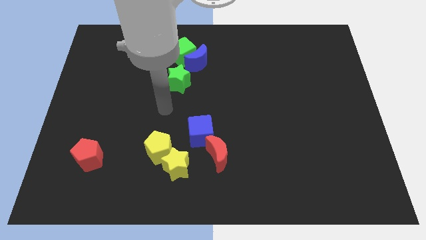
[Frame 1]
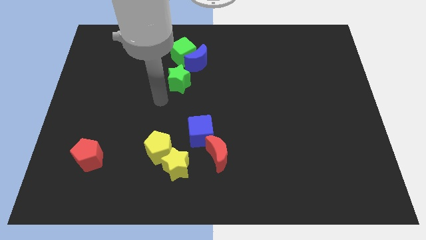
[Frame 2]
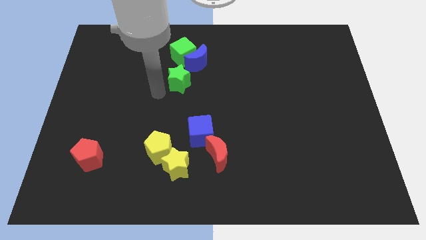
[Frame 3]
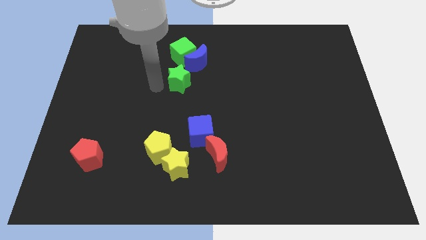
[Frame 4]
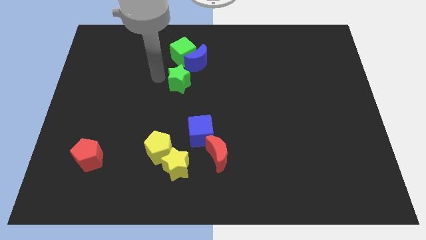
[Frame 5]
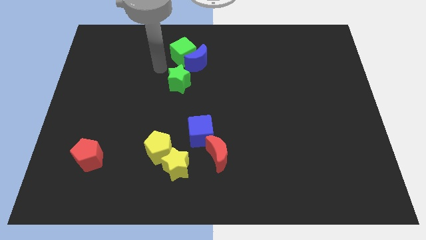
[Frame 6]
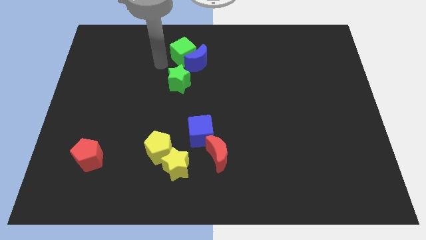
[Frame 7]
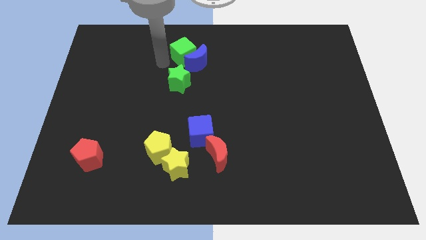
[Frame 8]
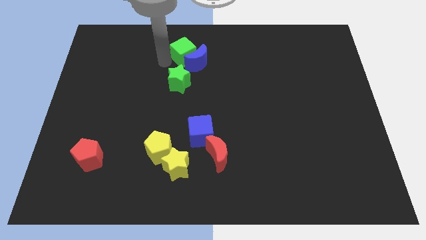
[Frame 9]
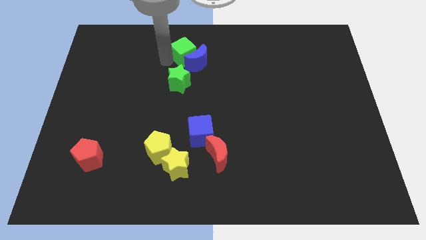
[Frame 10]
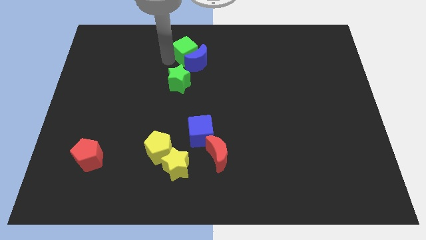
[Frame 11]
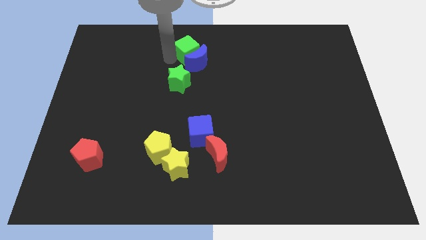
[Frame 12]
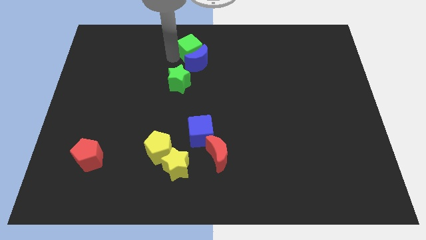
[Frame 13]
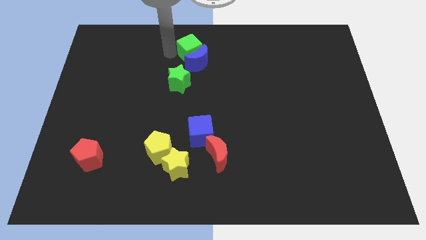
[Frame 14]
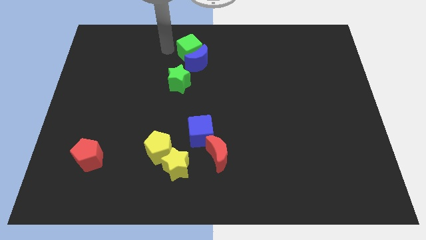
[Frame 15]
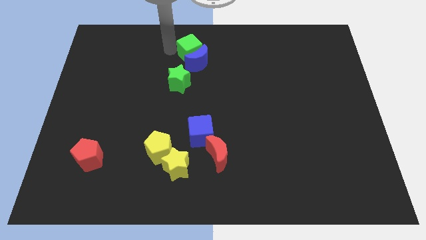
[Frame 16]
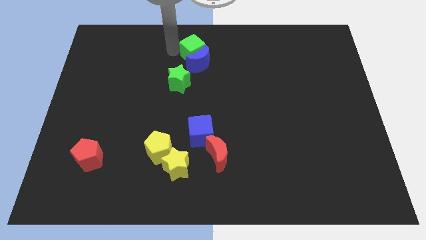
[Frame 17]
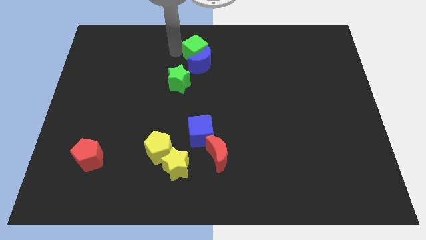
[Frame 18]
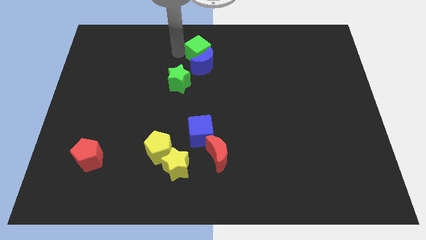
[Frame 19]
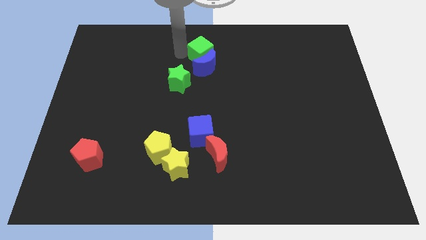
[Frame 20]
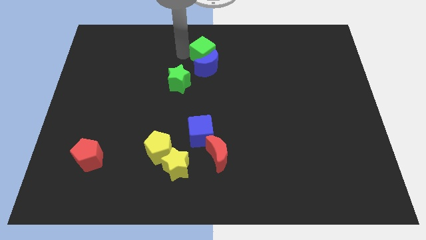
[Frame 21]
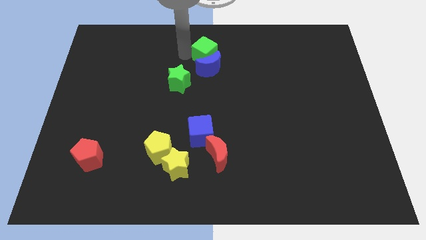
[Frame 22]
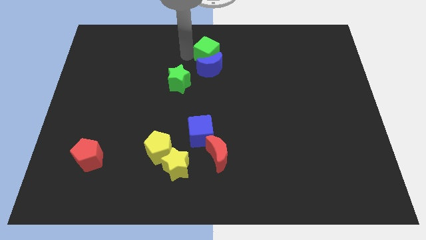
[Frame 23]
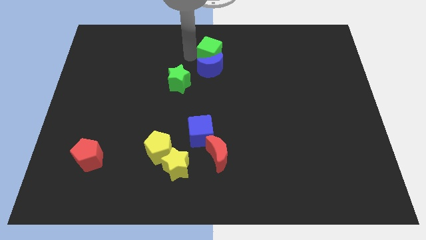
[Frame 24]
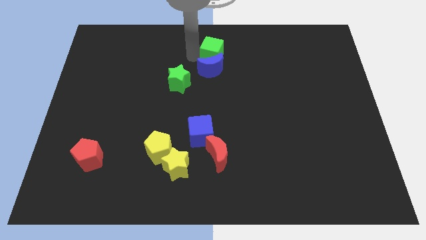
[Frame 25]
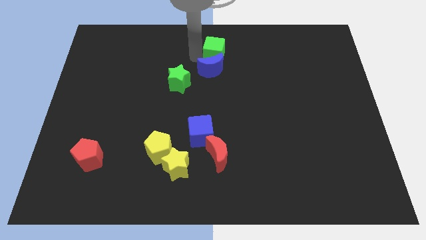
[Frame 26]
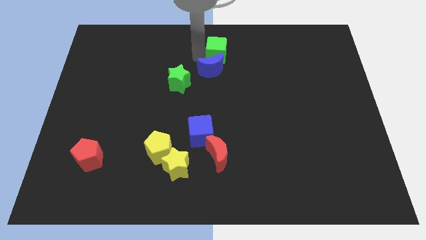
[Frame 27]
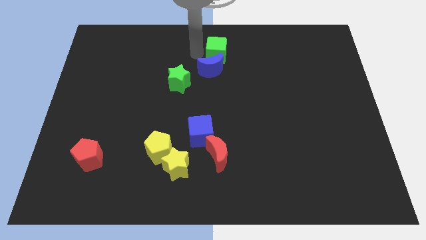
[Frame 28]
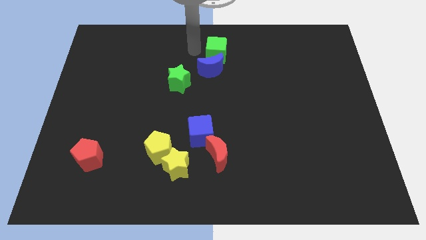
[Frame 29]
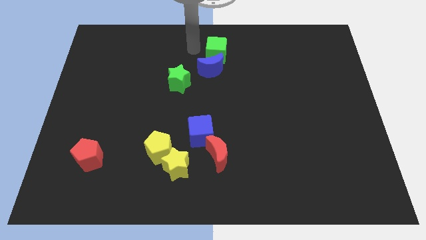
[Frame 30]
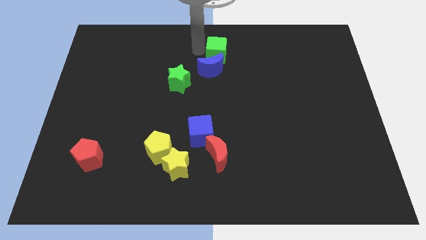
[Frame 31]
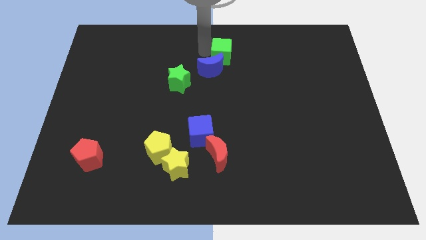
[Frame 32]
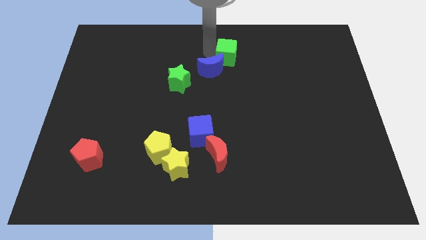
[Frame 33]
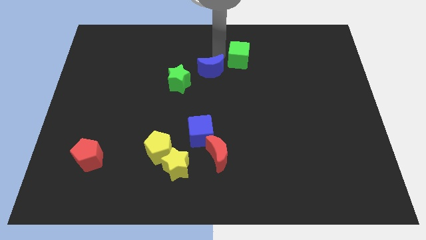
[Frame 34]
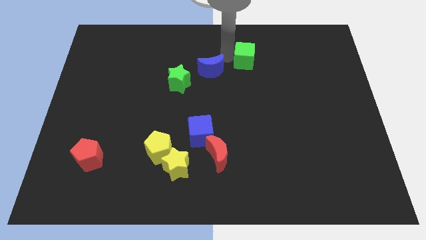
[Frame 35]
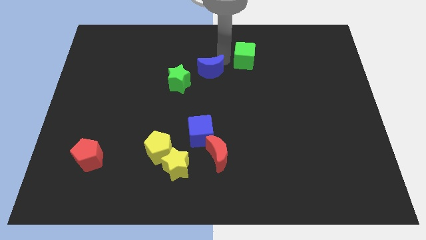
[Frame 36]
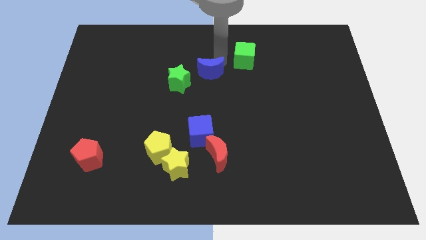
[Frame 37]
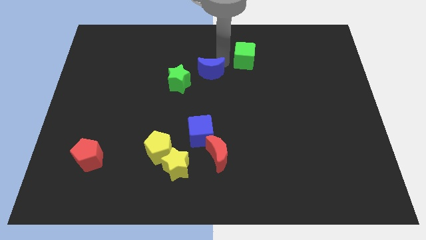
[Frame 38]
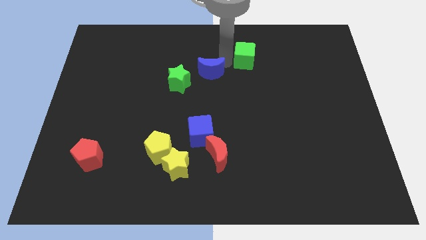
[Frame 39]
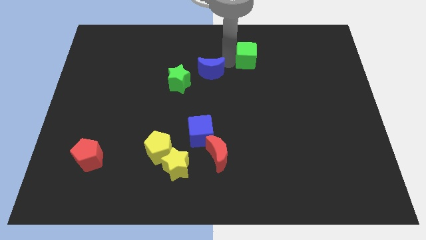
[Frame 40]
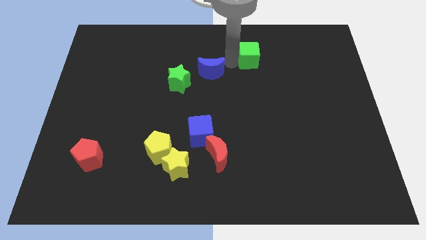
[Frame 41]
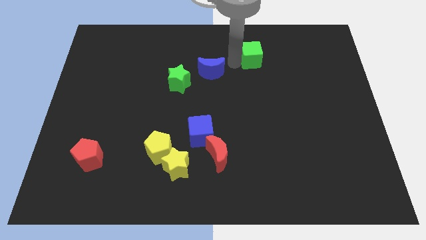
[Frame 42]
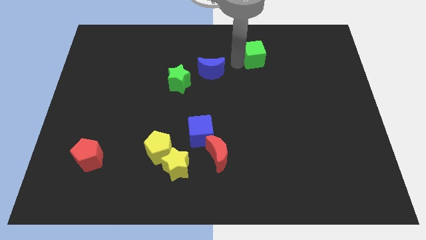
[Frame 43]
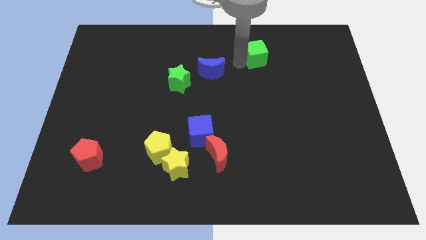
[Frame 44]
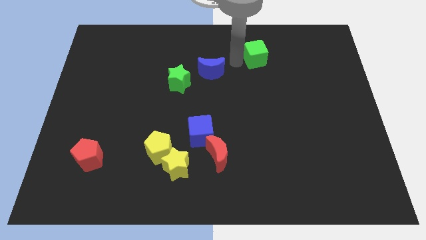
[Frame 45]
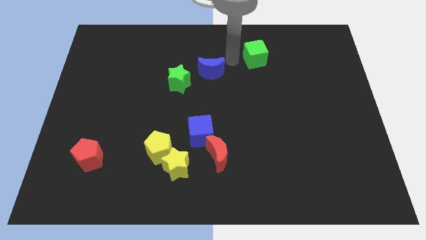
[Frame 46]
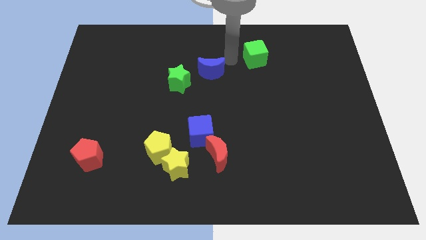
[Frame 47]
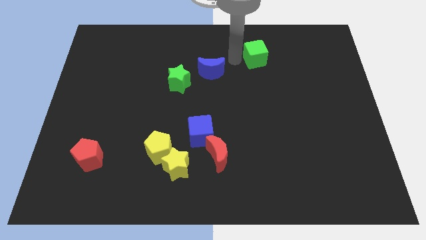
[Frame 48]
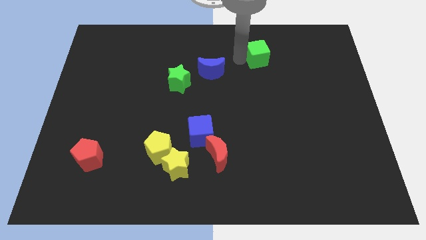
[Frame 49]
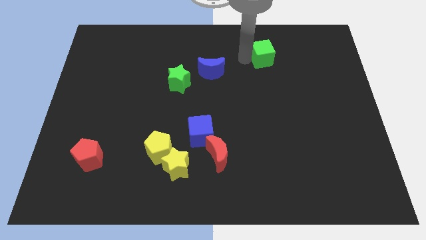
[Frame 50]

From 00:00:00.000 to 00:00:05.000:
move the green cube right

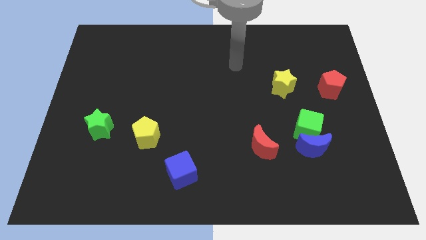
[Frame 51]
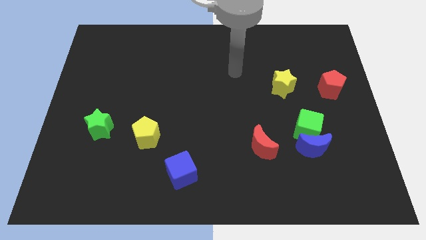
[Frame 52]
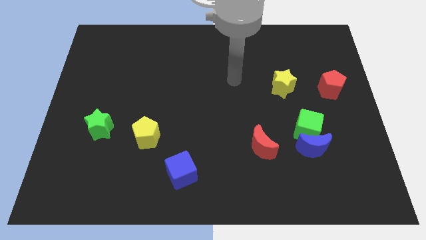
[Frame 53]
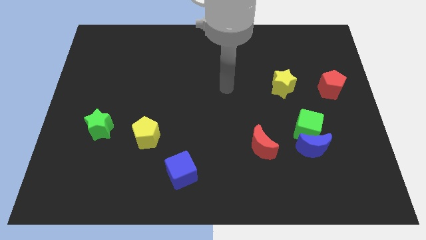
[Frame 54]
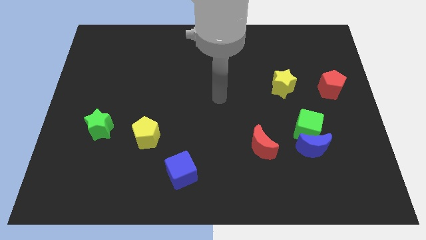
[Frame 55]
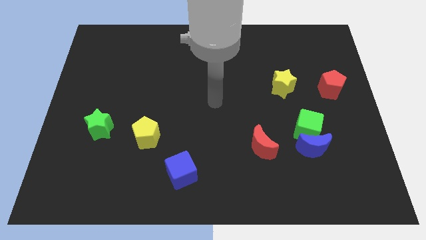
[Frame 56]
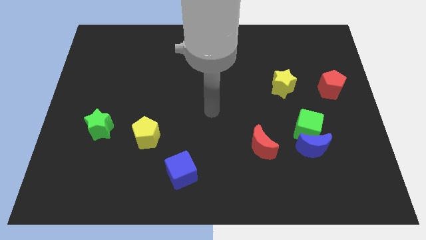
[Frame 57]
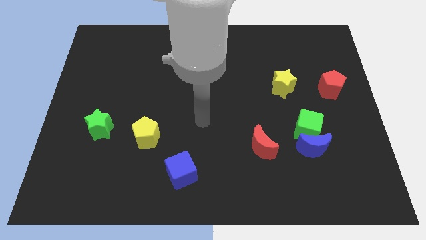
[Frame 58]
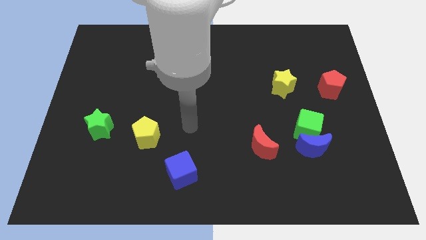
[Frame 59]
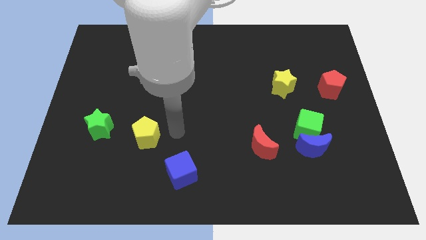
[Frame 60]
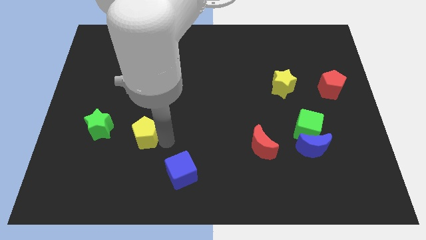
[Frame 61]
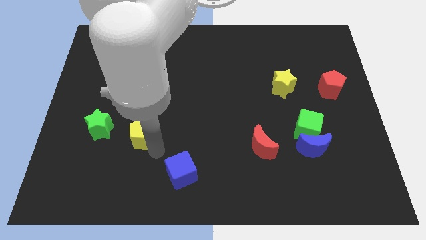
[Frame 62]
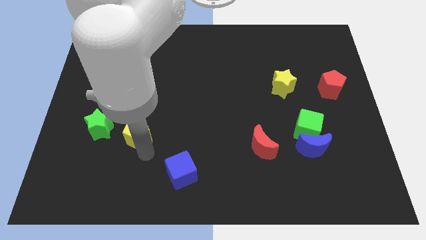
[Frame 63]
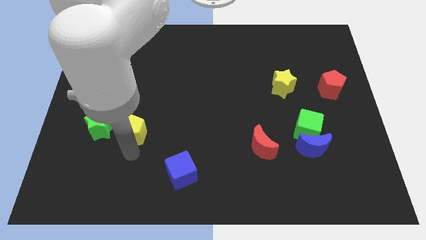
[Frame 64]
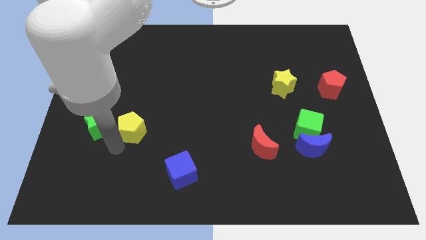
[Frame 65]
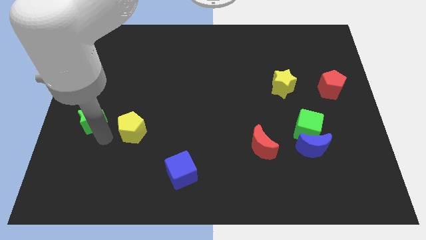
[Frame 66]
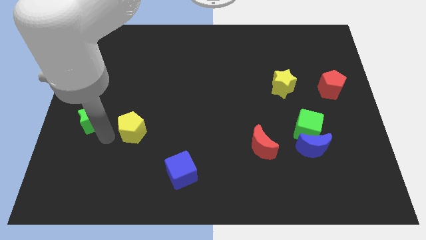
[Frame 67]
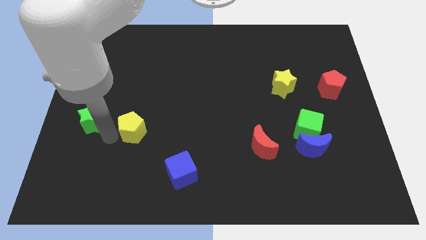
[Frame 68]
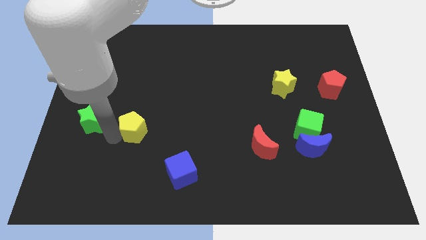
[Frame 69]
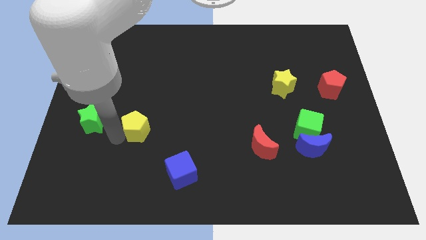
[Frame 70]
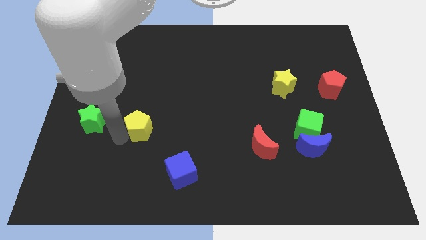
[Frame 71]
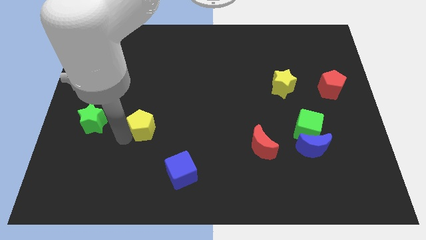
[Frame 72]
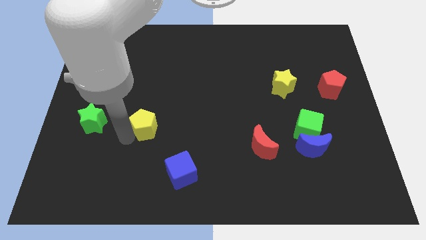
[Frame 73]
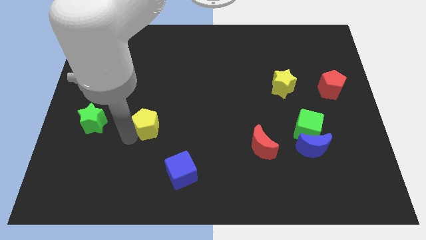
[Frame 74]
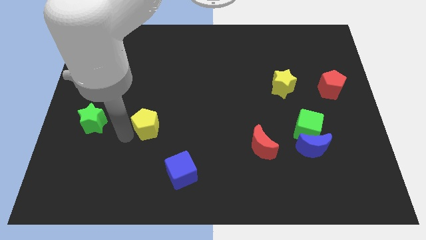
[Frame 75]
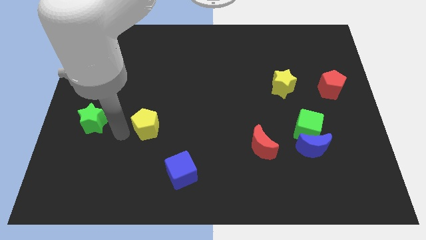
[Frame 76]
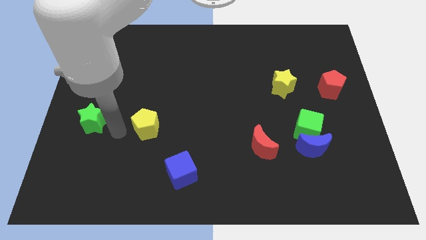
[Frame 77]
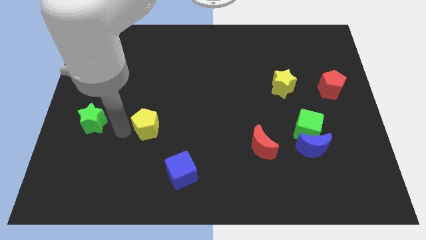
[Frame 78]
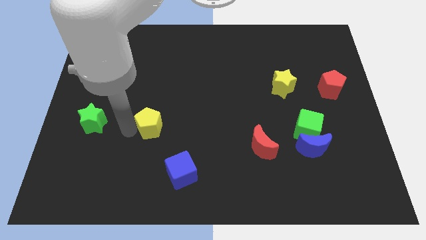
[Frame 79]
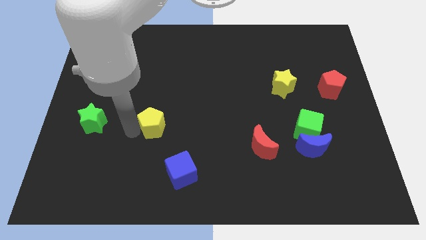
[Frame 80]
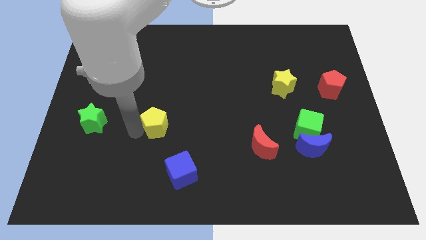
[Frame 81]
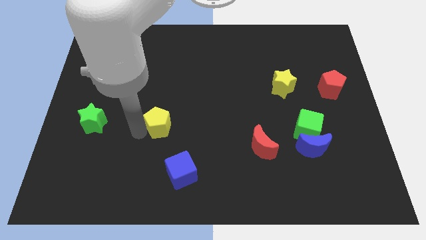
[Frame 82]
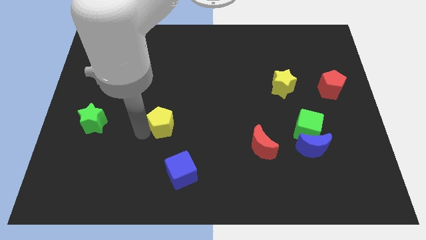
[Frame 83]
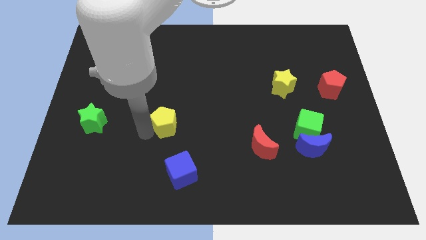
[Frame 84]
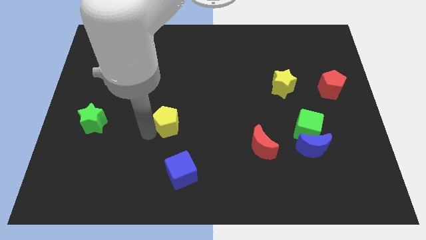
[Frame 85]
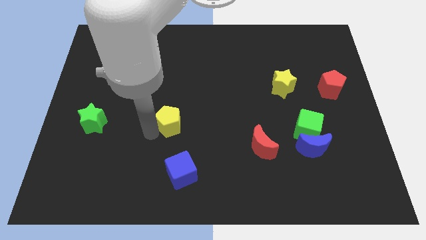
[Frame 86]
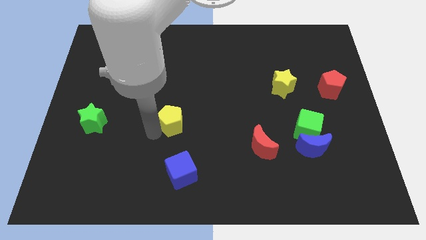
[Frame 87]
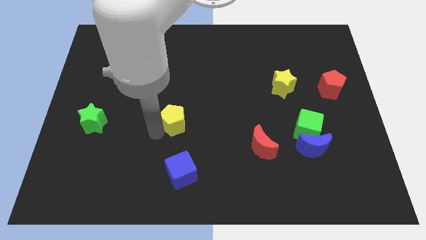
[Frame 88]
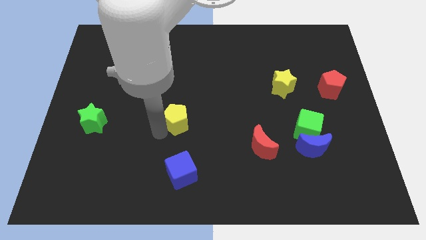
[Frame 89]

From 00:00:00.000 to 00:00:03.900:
slightly move the yellow pentagon upwards and right
